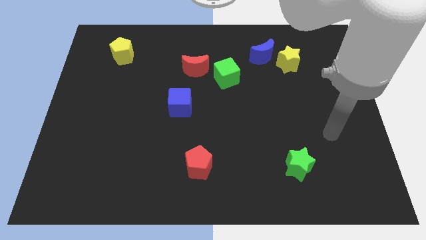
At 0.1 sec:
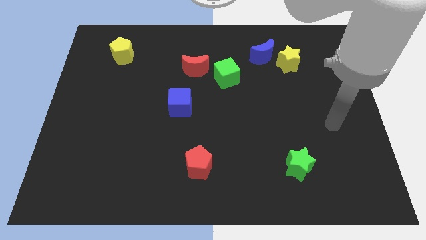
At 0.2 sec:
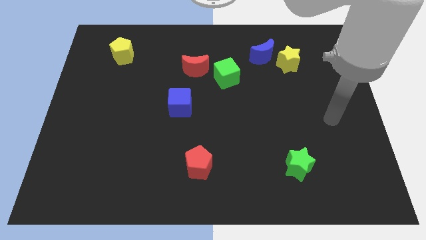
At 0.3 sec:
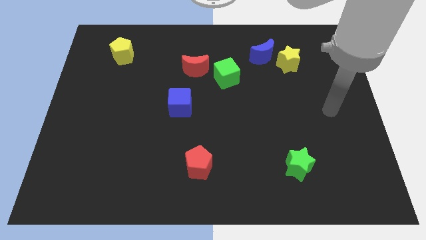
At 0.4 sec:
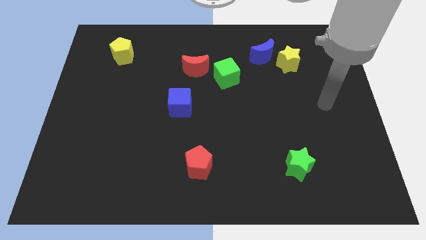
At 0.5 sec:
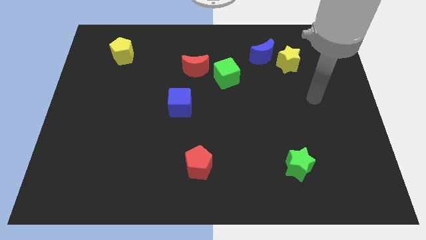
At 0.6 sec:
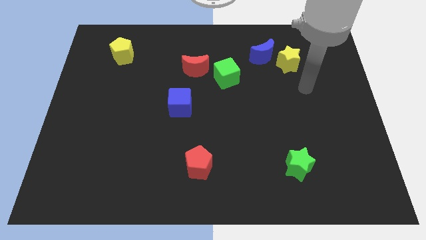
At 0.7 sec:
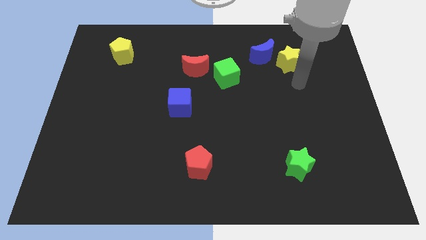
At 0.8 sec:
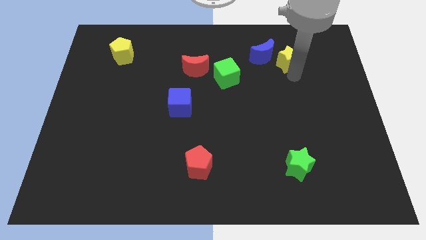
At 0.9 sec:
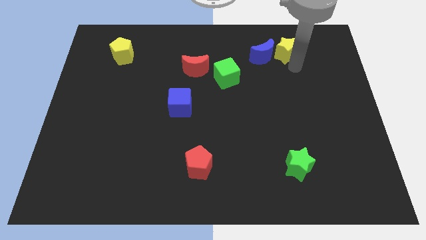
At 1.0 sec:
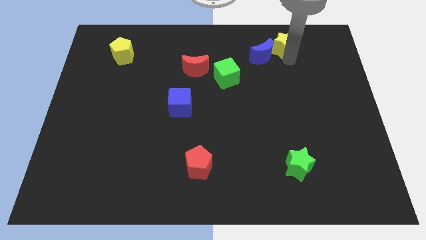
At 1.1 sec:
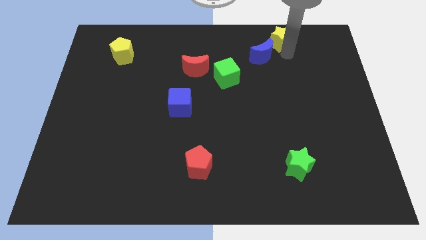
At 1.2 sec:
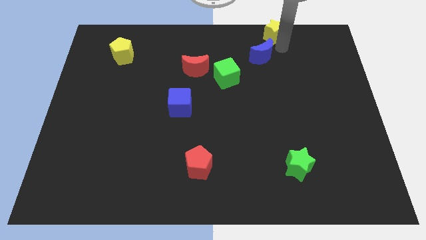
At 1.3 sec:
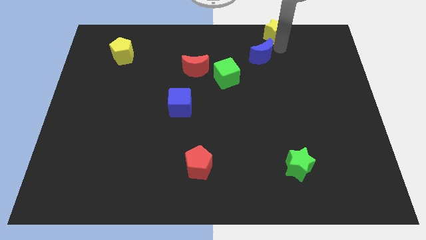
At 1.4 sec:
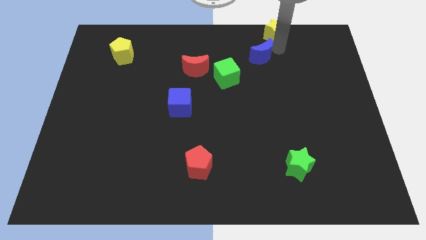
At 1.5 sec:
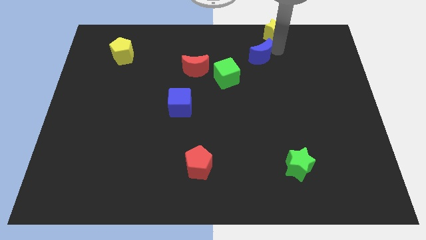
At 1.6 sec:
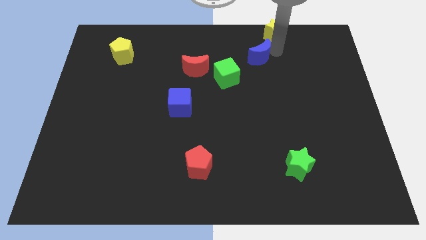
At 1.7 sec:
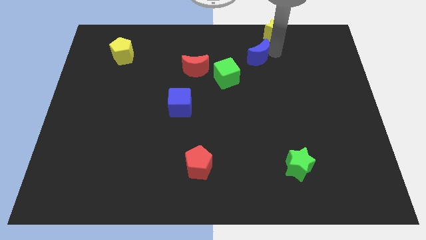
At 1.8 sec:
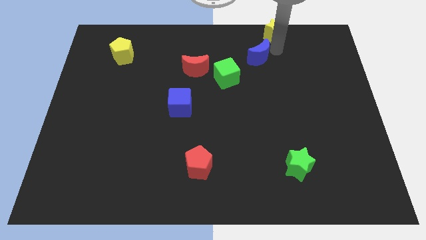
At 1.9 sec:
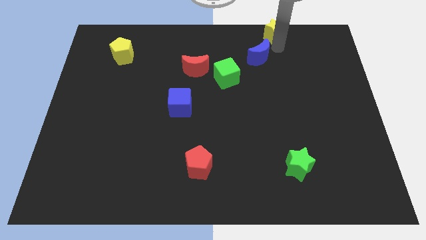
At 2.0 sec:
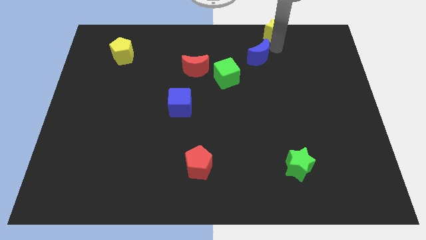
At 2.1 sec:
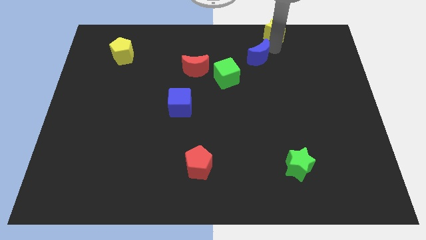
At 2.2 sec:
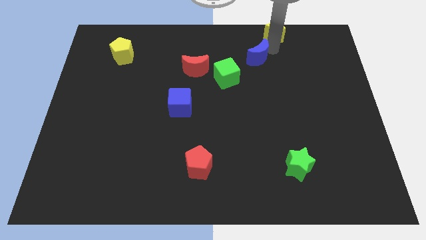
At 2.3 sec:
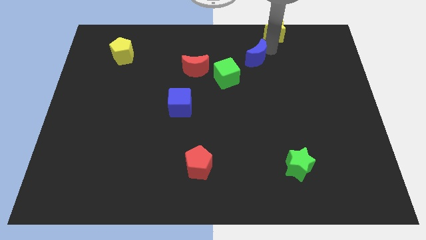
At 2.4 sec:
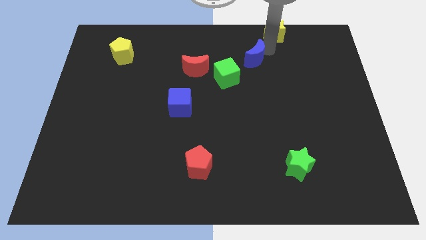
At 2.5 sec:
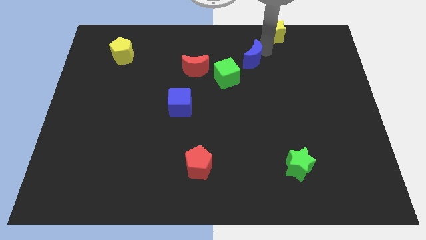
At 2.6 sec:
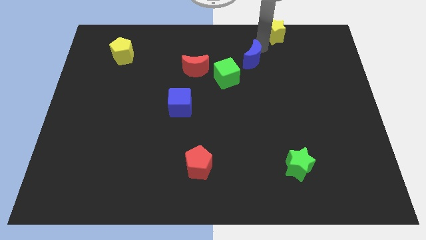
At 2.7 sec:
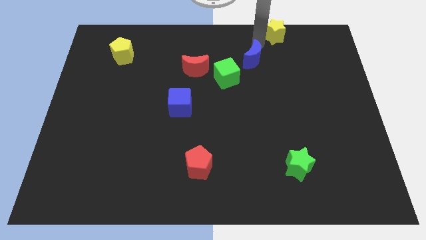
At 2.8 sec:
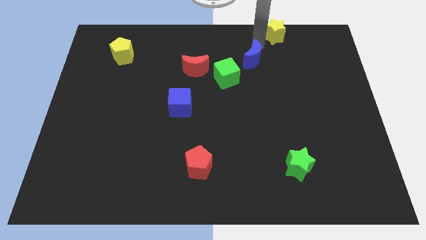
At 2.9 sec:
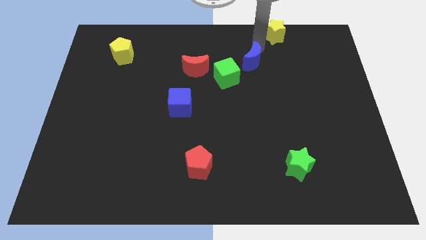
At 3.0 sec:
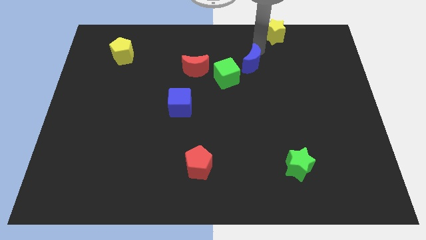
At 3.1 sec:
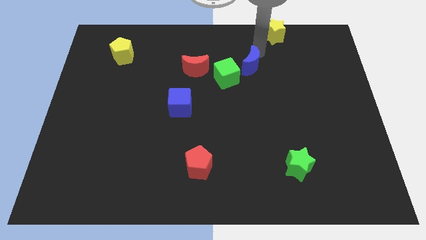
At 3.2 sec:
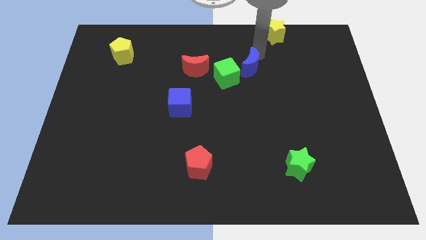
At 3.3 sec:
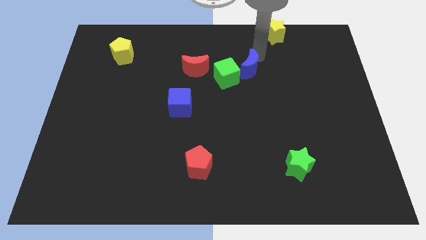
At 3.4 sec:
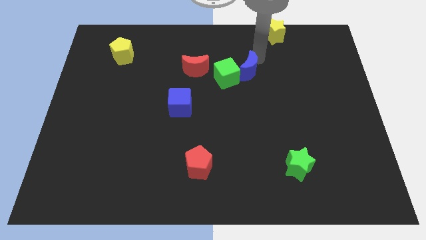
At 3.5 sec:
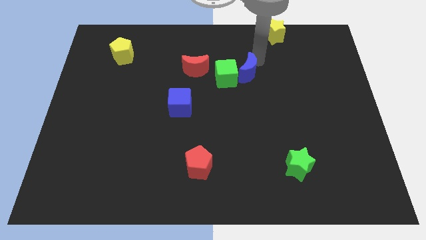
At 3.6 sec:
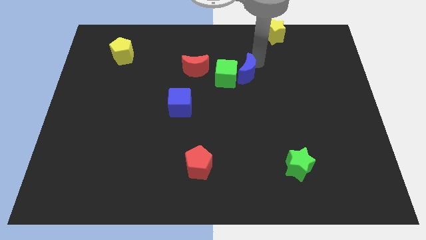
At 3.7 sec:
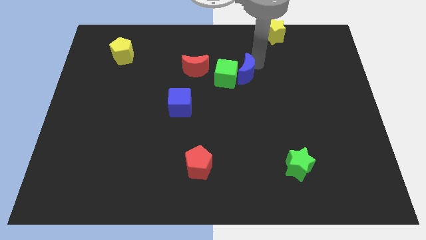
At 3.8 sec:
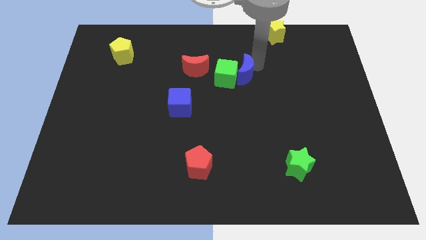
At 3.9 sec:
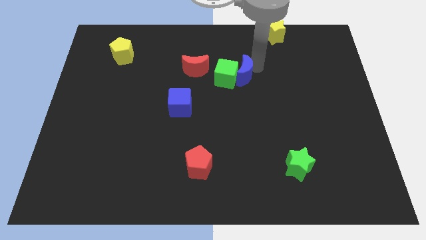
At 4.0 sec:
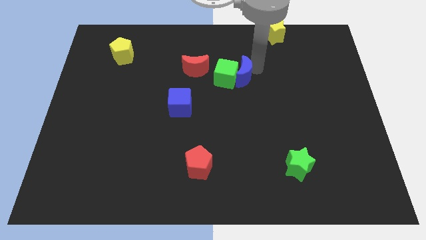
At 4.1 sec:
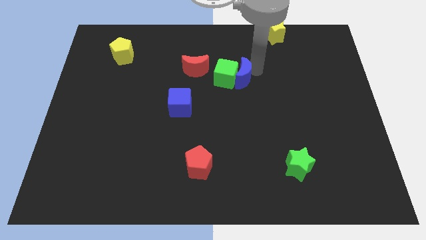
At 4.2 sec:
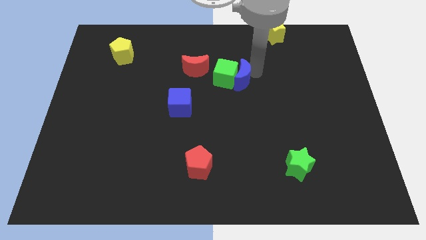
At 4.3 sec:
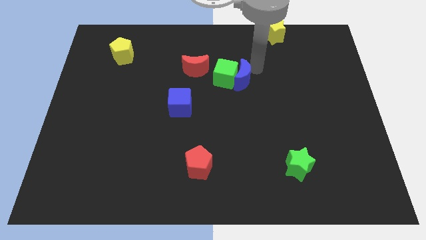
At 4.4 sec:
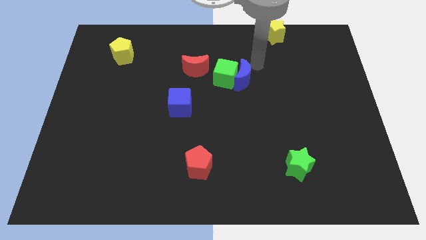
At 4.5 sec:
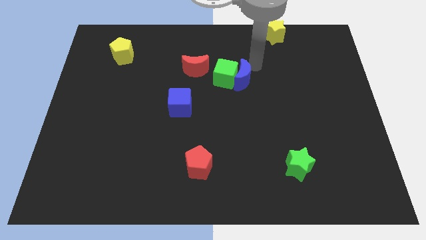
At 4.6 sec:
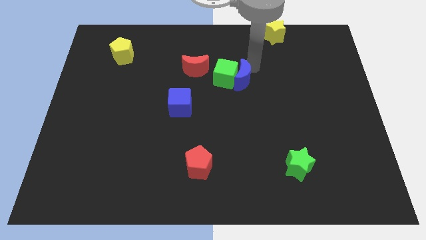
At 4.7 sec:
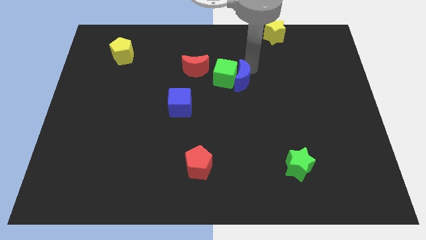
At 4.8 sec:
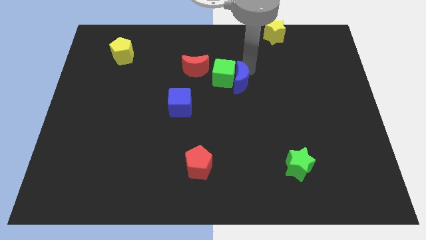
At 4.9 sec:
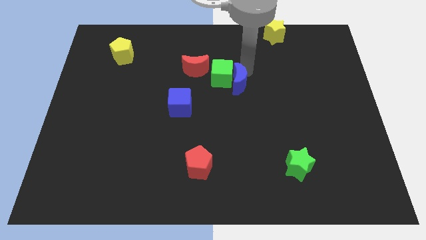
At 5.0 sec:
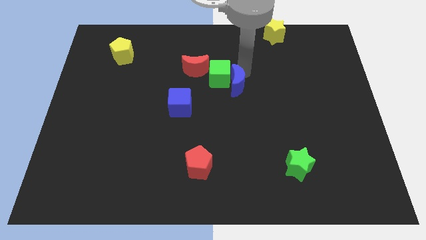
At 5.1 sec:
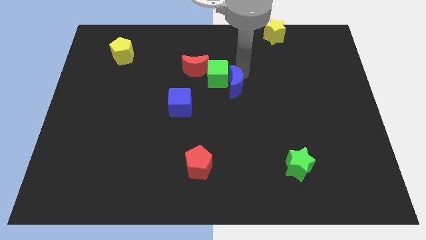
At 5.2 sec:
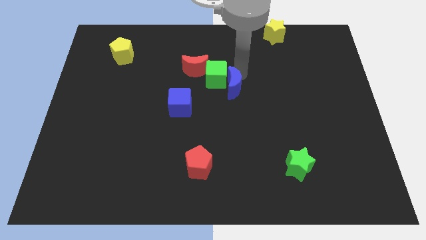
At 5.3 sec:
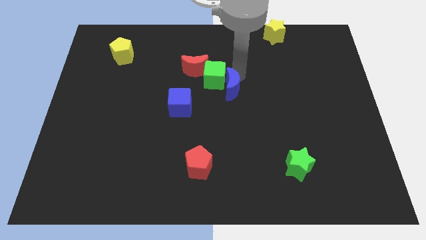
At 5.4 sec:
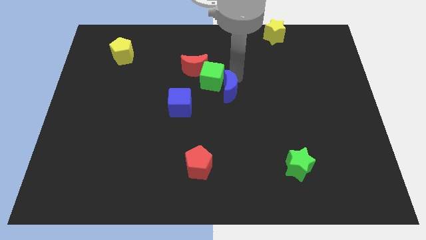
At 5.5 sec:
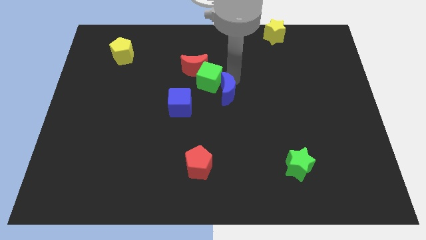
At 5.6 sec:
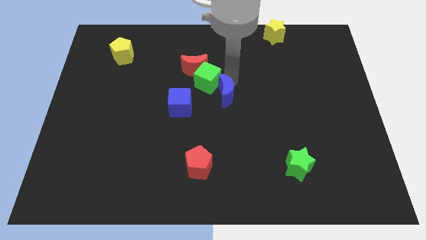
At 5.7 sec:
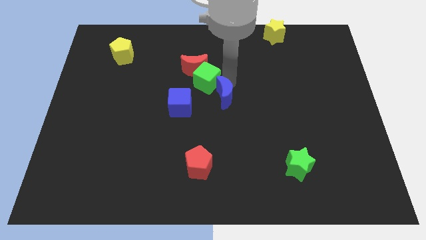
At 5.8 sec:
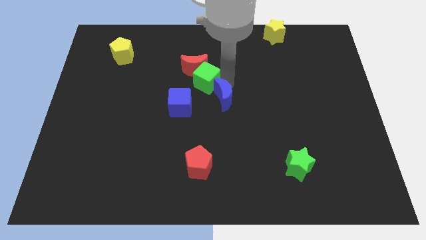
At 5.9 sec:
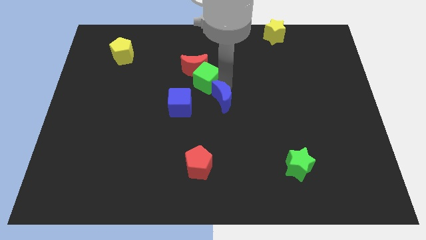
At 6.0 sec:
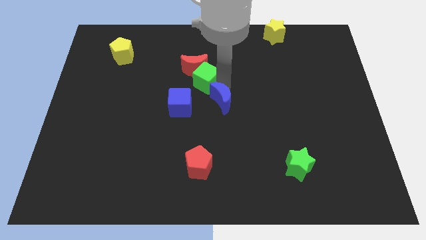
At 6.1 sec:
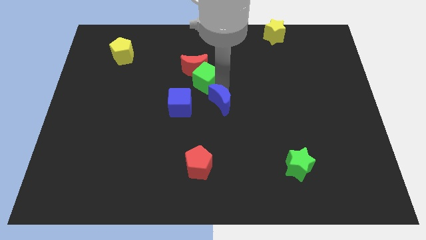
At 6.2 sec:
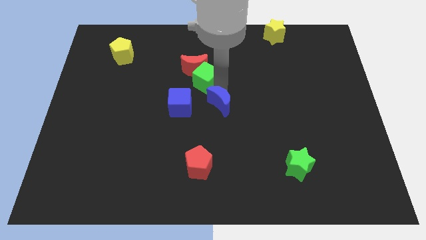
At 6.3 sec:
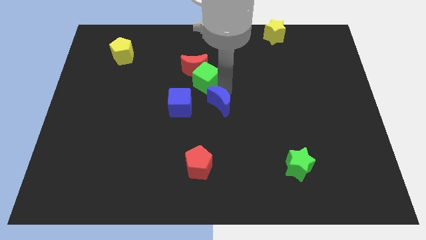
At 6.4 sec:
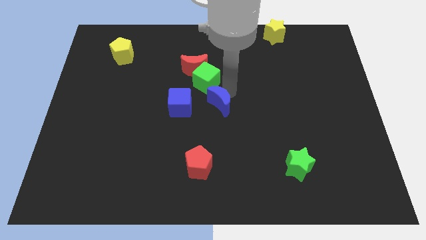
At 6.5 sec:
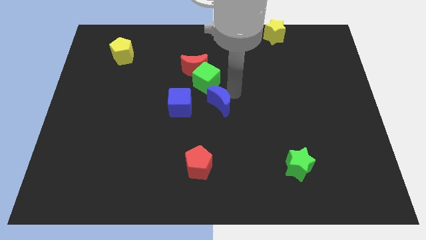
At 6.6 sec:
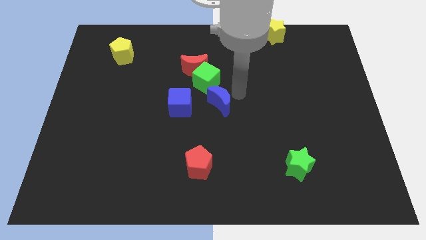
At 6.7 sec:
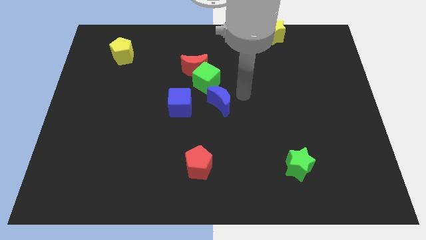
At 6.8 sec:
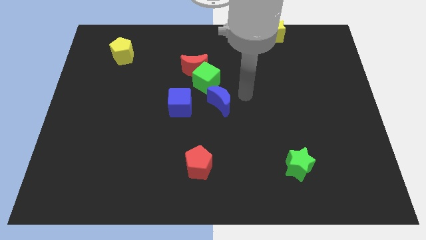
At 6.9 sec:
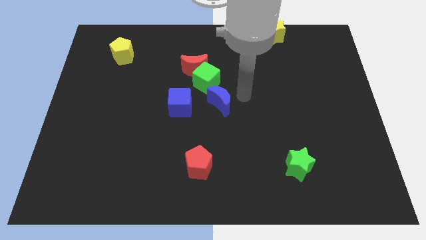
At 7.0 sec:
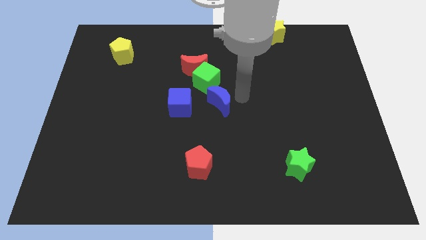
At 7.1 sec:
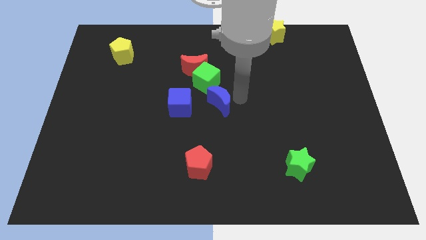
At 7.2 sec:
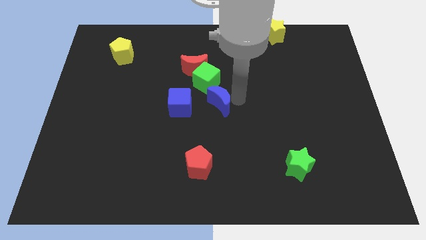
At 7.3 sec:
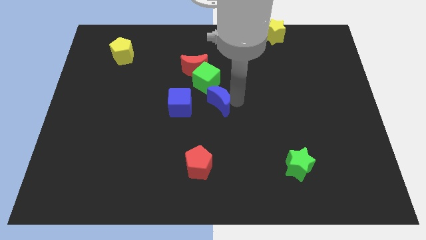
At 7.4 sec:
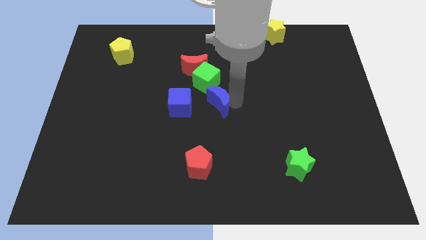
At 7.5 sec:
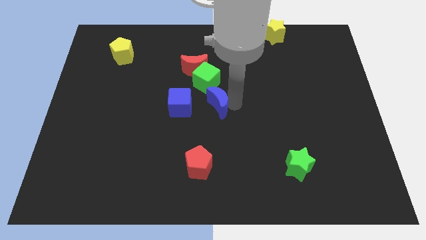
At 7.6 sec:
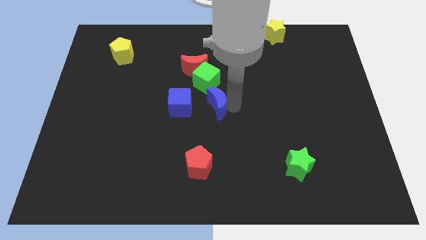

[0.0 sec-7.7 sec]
move the blue moon diagonally downwards and to the left
